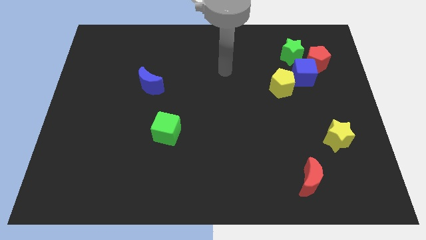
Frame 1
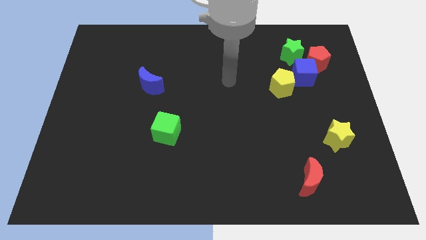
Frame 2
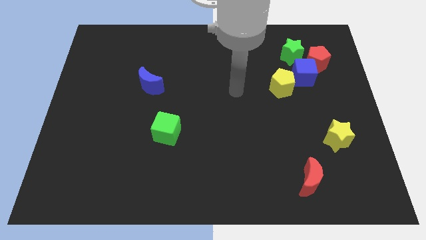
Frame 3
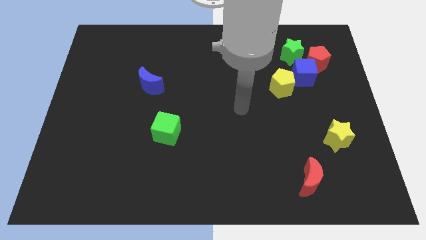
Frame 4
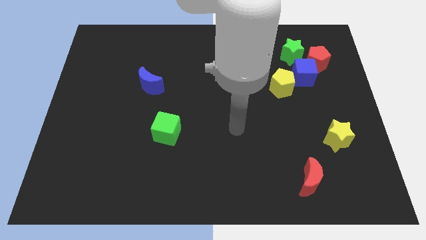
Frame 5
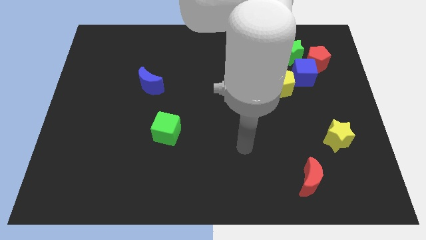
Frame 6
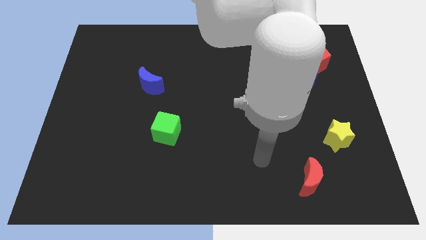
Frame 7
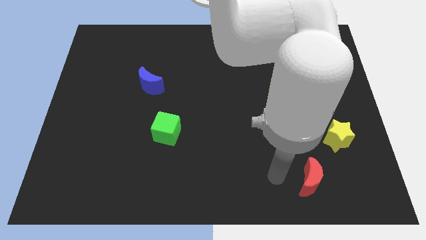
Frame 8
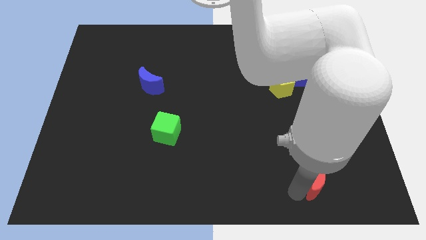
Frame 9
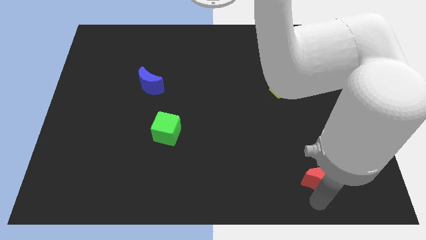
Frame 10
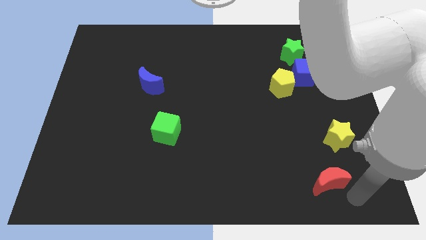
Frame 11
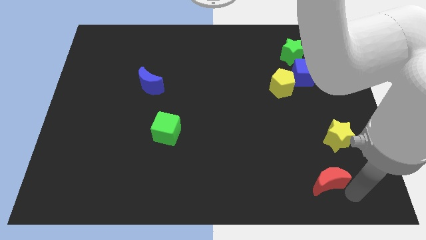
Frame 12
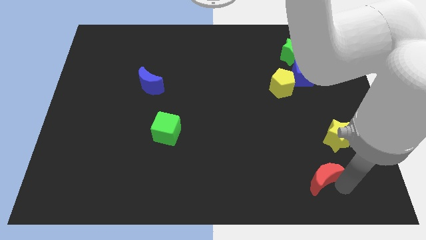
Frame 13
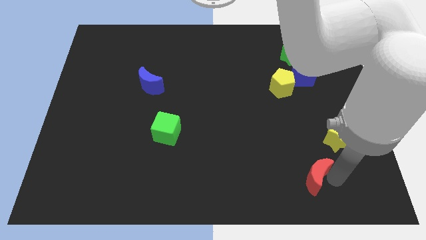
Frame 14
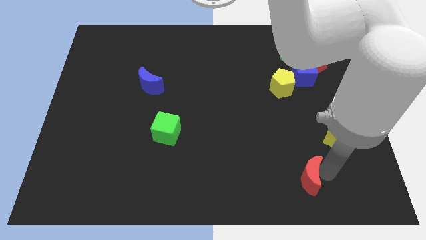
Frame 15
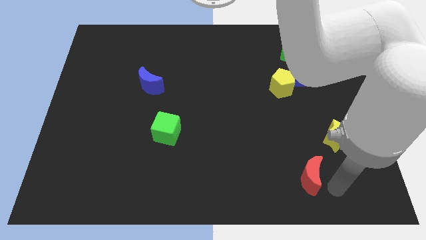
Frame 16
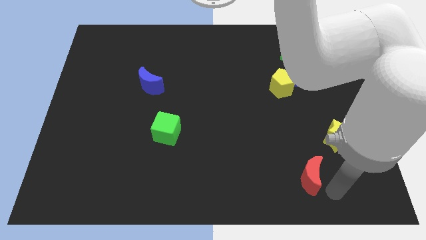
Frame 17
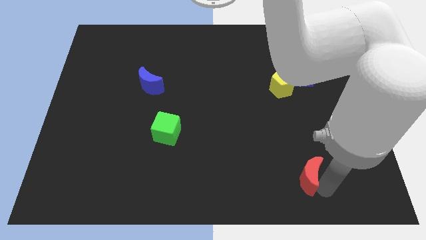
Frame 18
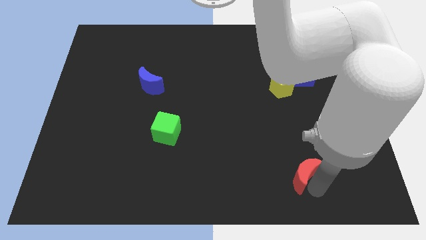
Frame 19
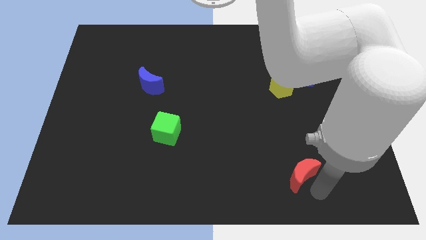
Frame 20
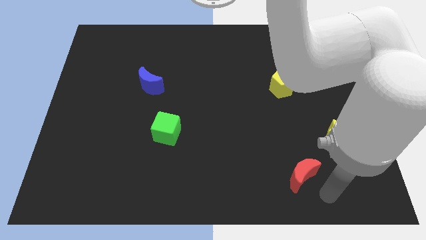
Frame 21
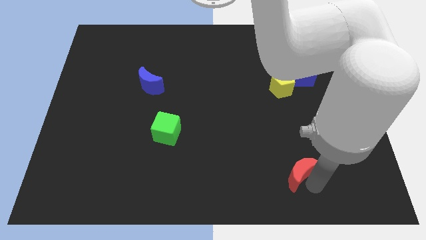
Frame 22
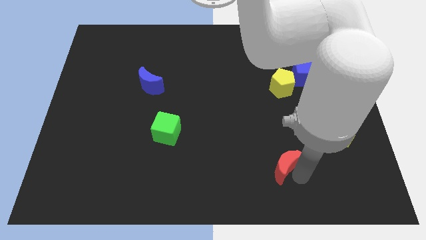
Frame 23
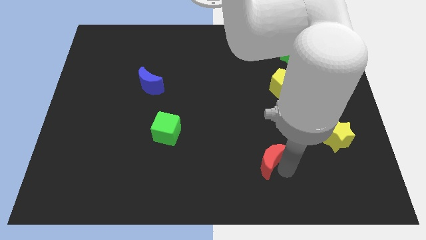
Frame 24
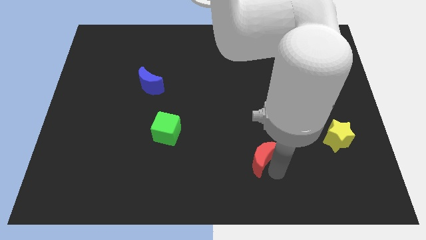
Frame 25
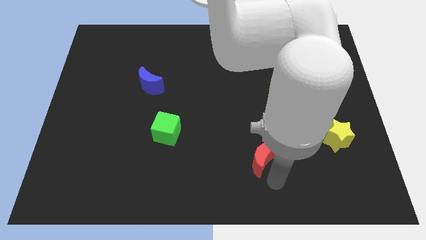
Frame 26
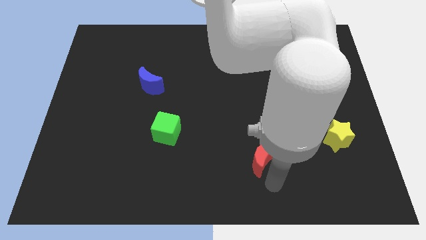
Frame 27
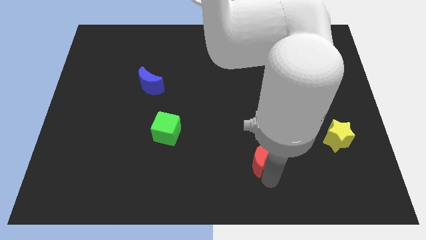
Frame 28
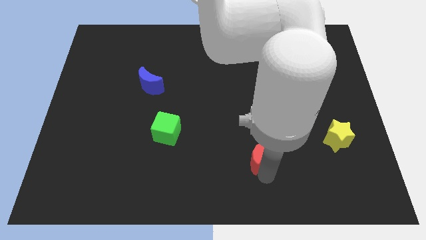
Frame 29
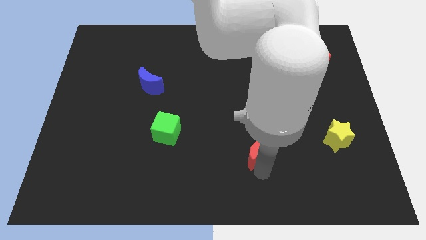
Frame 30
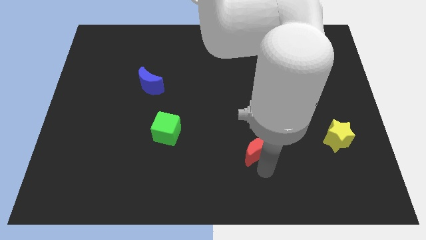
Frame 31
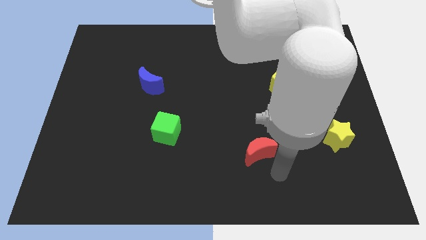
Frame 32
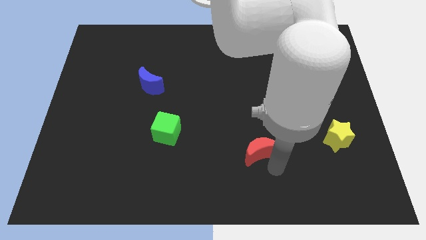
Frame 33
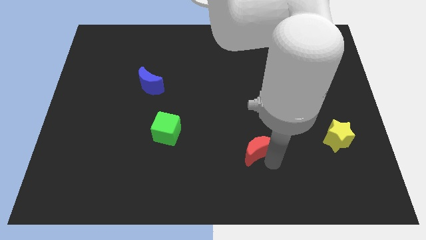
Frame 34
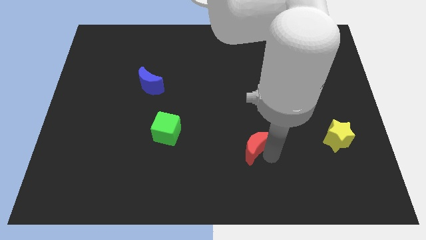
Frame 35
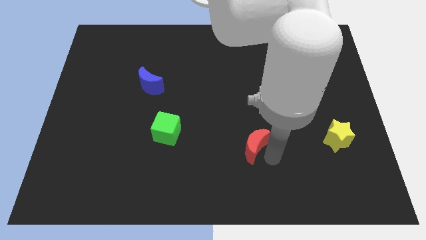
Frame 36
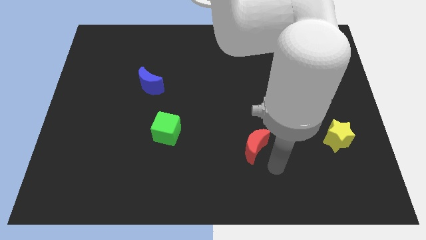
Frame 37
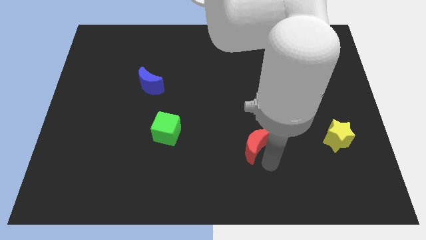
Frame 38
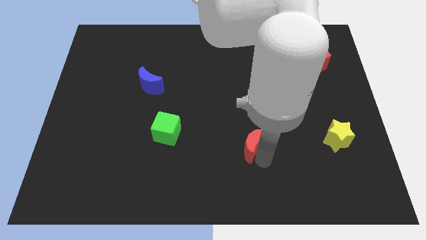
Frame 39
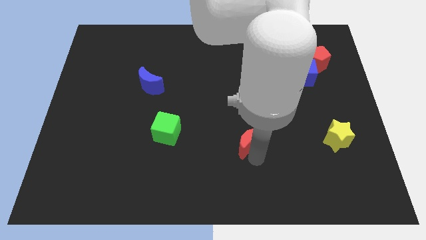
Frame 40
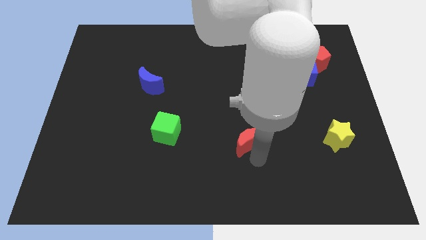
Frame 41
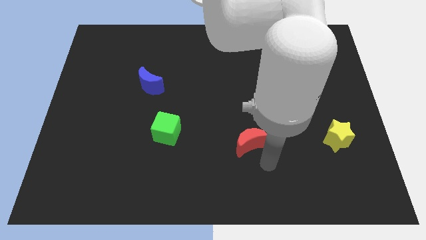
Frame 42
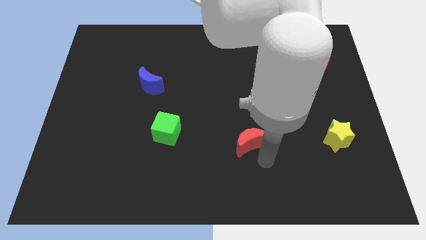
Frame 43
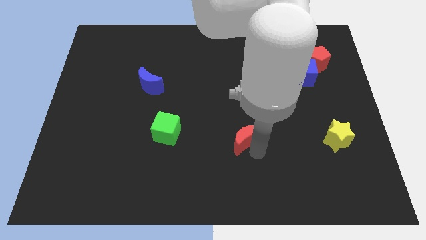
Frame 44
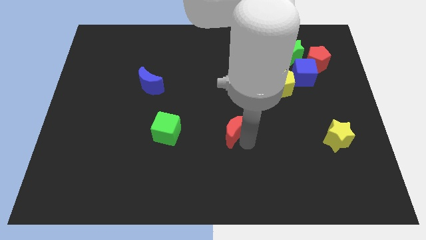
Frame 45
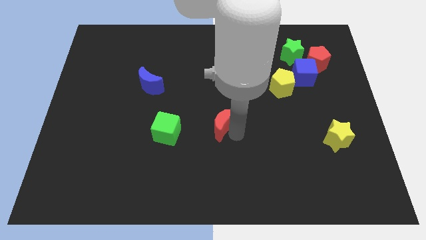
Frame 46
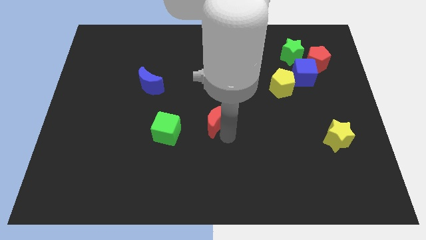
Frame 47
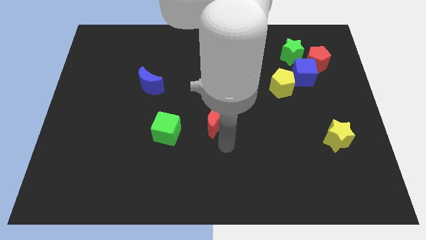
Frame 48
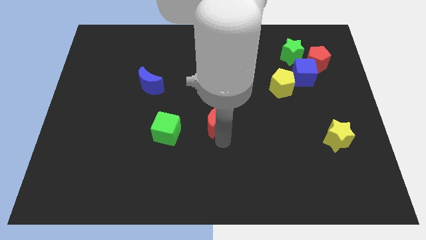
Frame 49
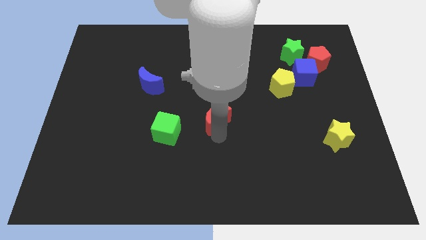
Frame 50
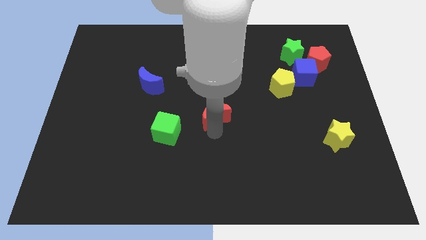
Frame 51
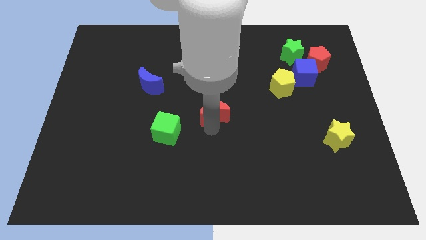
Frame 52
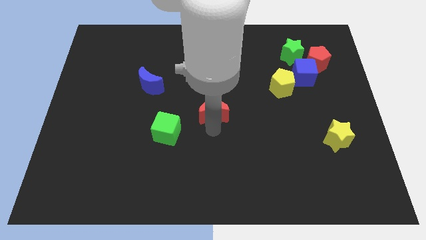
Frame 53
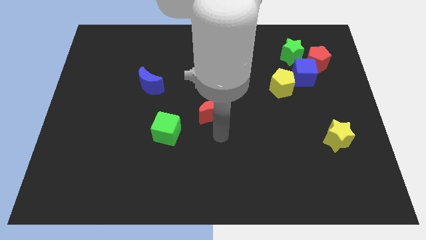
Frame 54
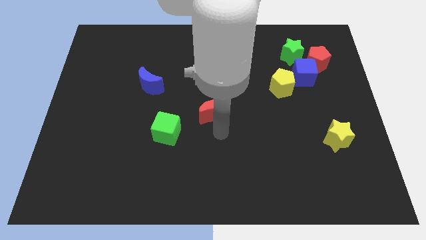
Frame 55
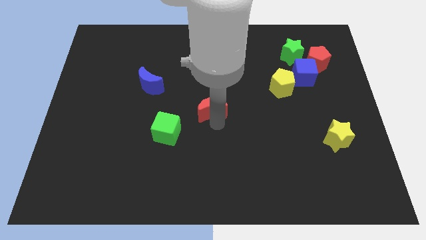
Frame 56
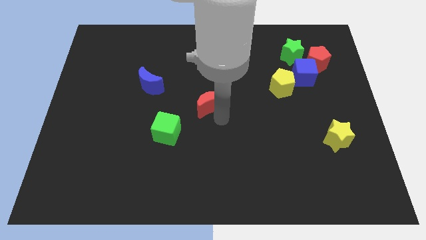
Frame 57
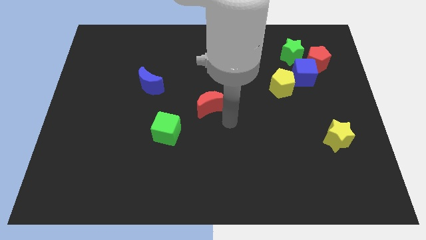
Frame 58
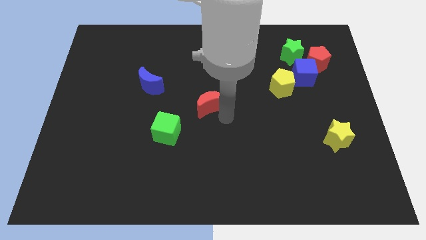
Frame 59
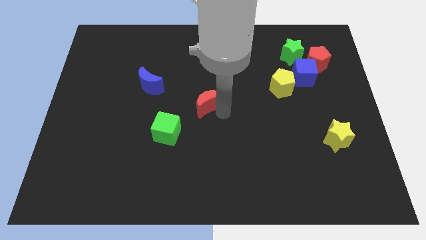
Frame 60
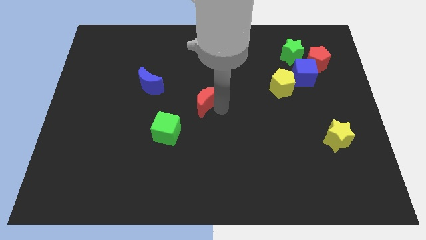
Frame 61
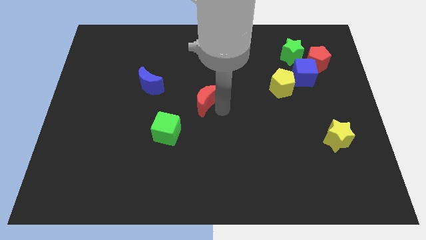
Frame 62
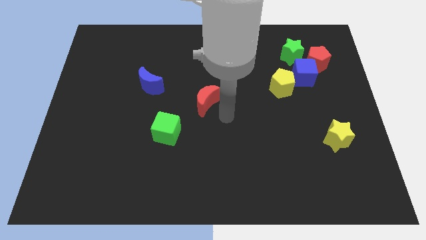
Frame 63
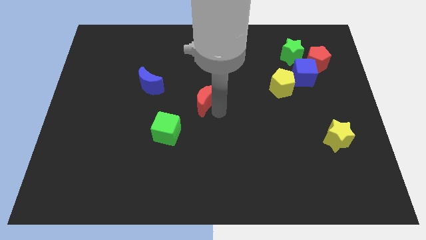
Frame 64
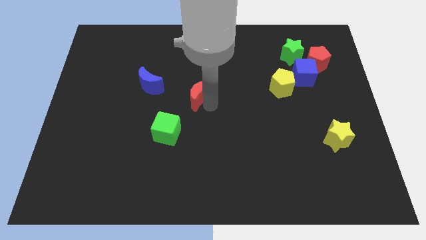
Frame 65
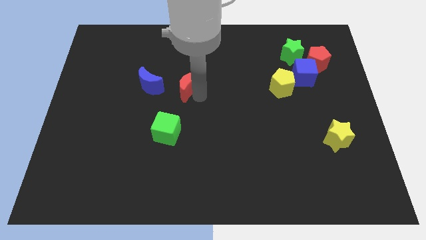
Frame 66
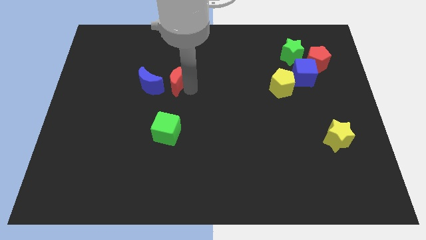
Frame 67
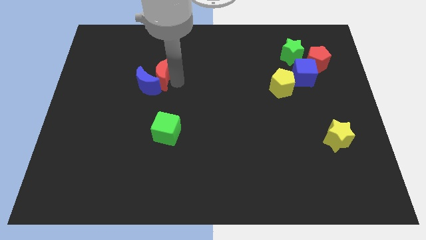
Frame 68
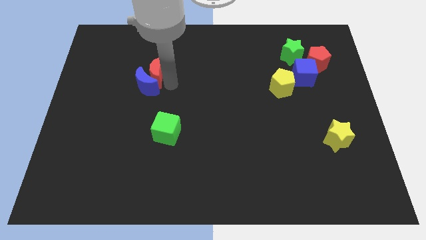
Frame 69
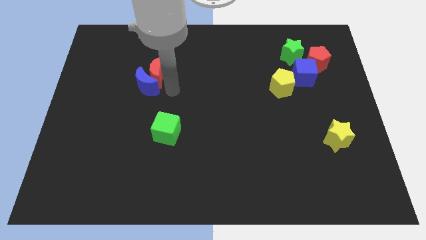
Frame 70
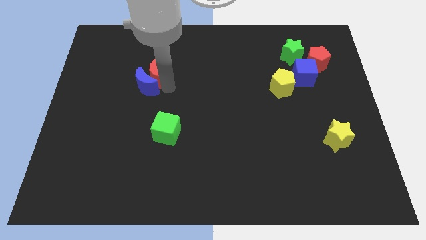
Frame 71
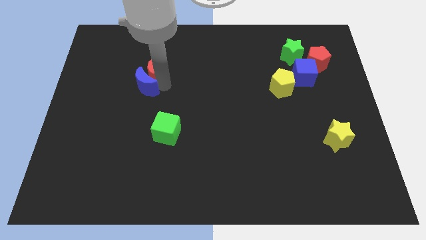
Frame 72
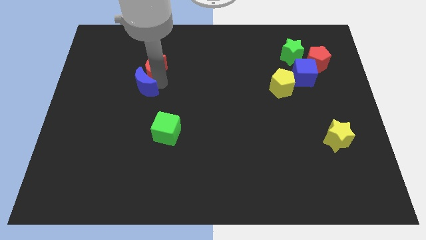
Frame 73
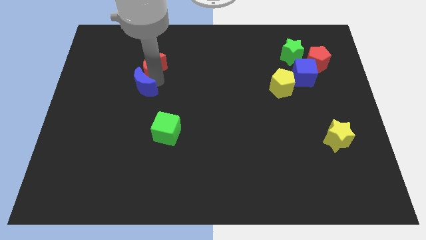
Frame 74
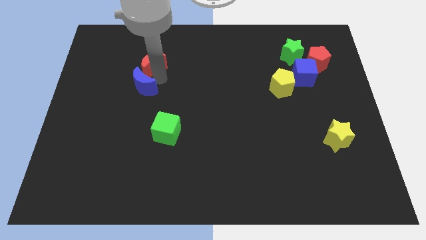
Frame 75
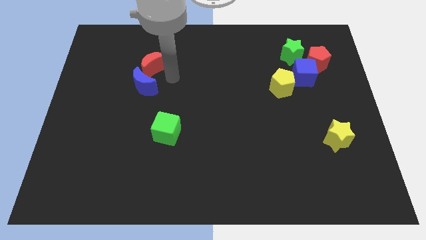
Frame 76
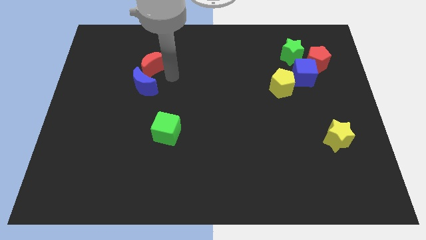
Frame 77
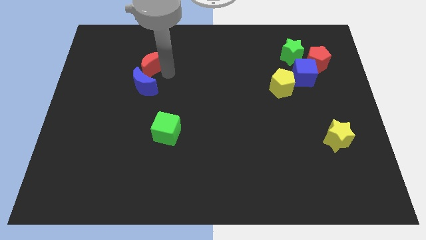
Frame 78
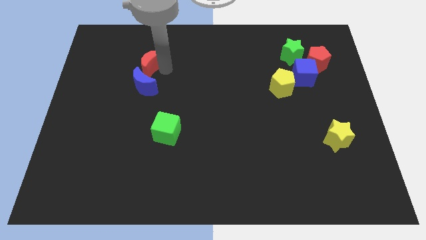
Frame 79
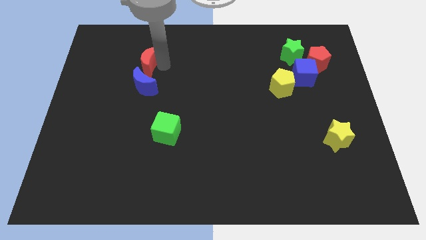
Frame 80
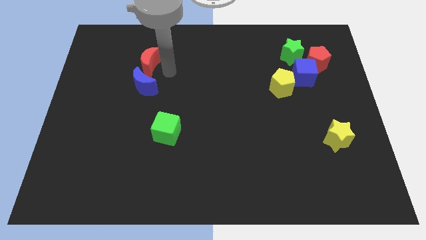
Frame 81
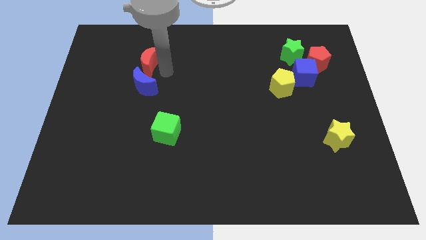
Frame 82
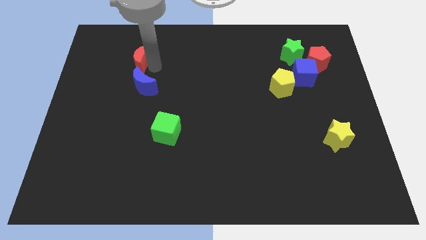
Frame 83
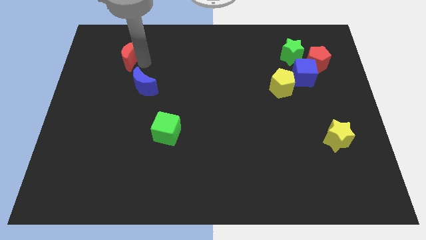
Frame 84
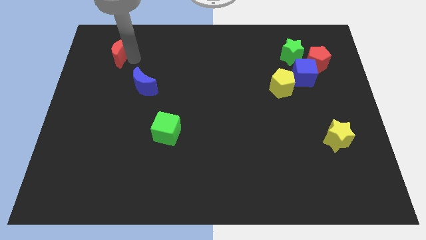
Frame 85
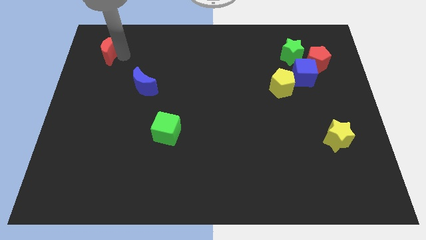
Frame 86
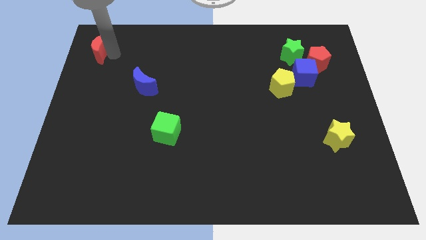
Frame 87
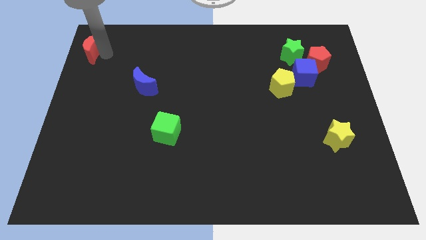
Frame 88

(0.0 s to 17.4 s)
move the red moon to the top left
